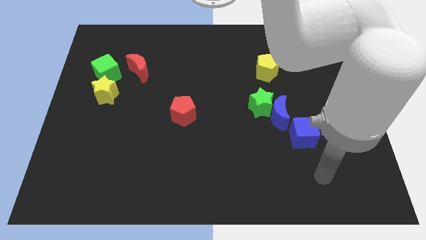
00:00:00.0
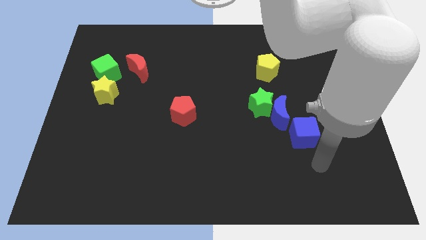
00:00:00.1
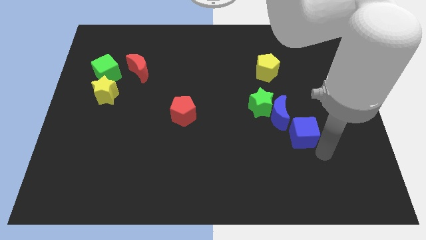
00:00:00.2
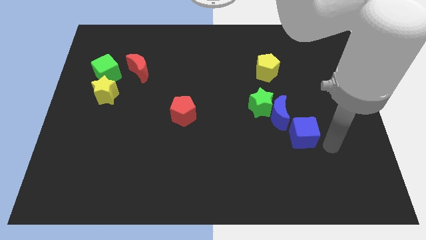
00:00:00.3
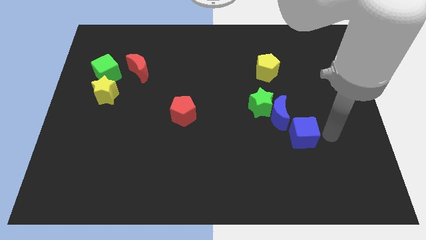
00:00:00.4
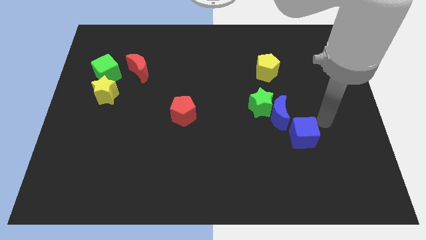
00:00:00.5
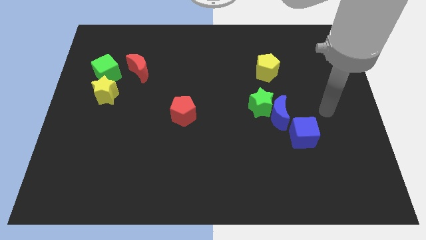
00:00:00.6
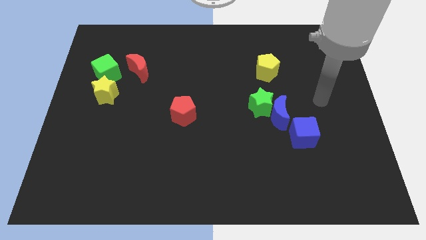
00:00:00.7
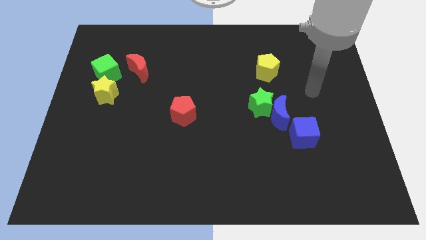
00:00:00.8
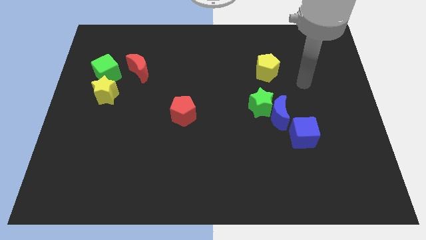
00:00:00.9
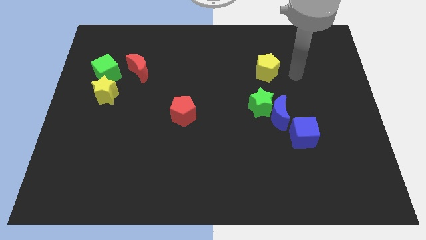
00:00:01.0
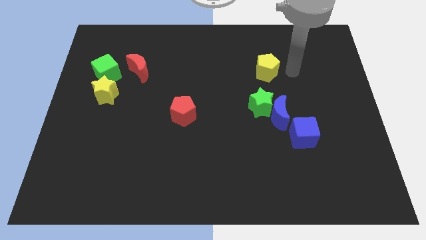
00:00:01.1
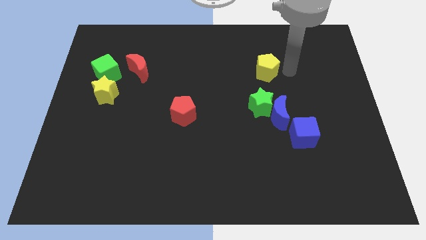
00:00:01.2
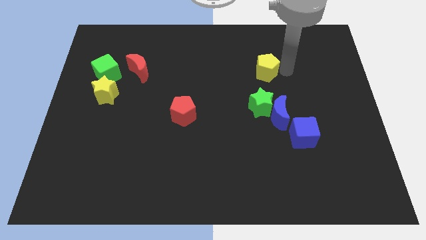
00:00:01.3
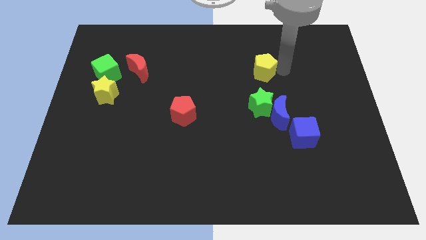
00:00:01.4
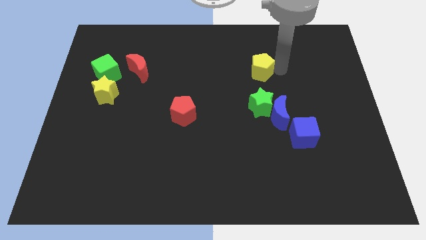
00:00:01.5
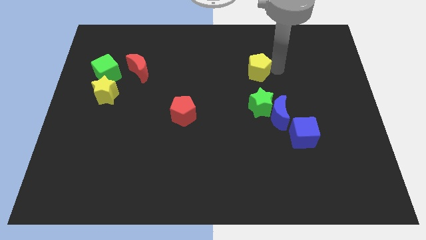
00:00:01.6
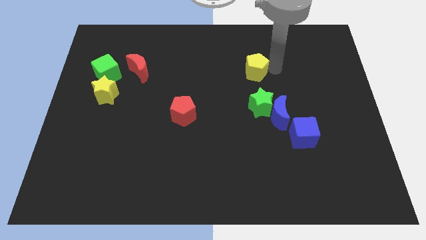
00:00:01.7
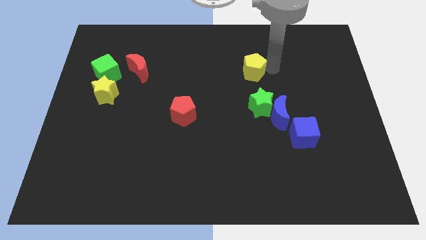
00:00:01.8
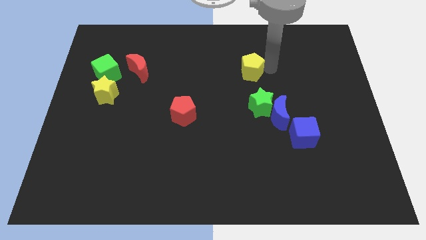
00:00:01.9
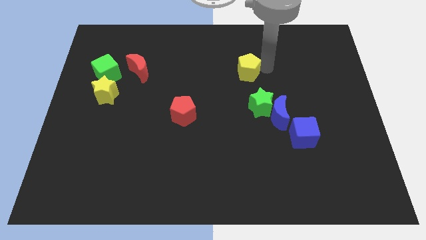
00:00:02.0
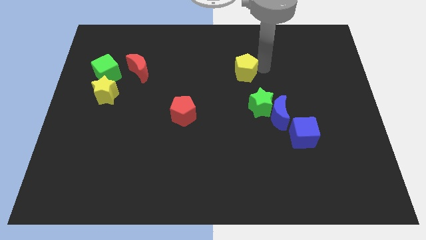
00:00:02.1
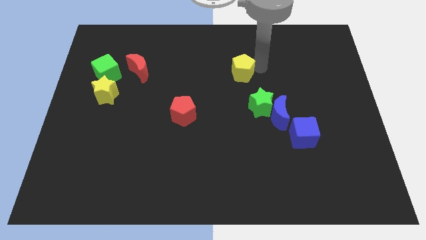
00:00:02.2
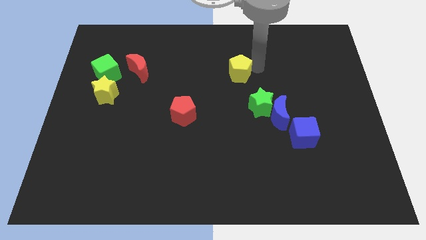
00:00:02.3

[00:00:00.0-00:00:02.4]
push the yellow pentagon a little to the left

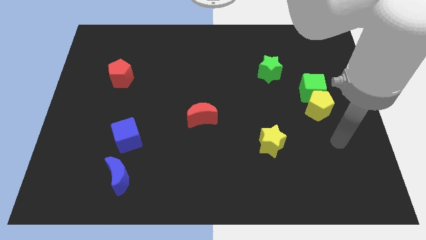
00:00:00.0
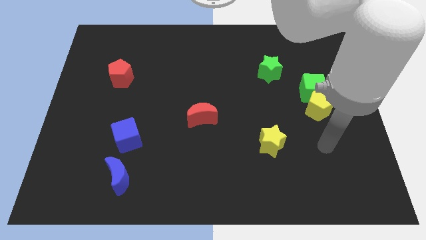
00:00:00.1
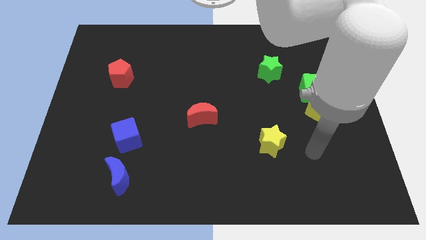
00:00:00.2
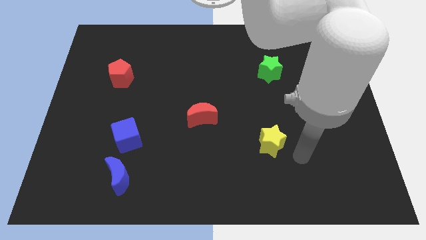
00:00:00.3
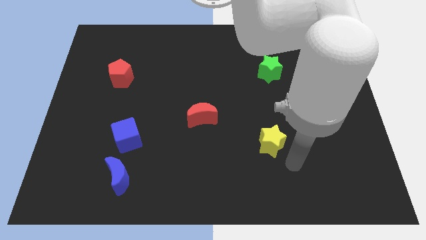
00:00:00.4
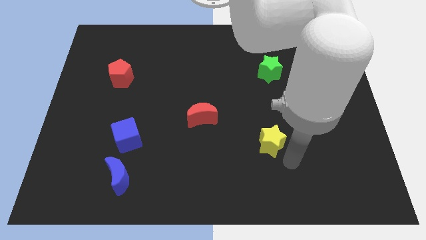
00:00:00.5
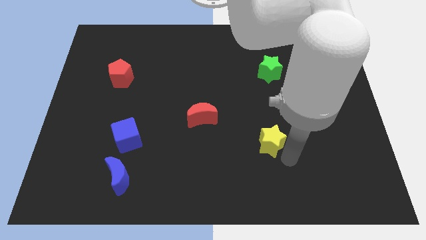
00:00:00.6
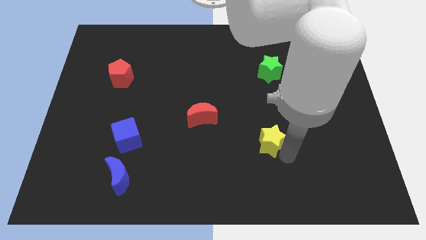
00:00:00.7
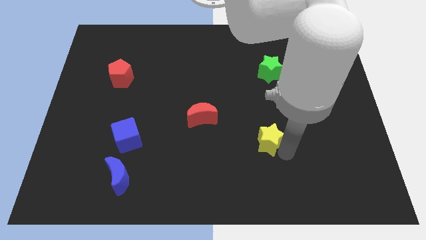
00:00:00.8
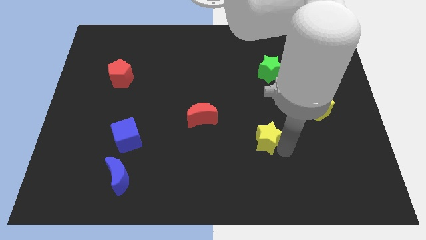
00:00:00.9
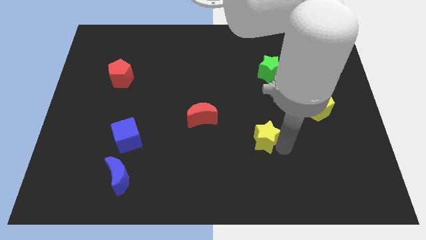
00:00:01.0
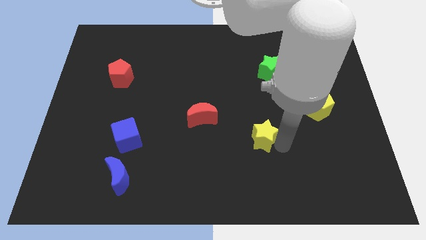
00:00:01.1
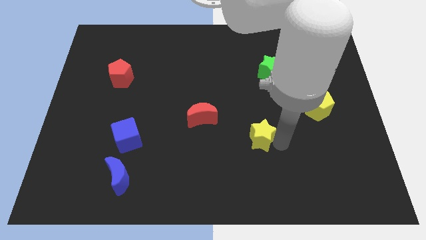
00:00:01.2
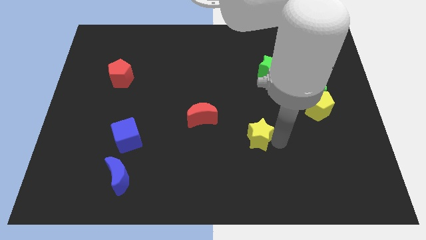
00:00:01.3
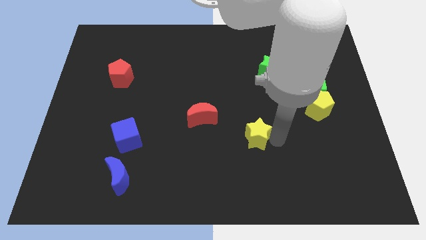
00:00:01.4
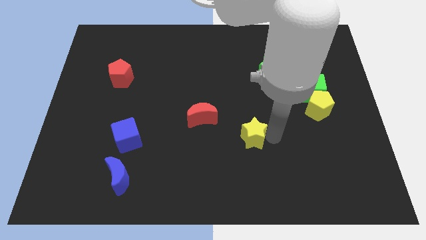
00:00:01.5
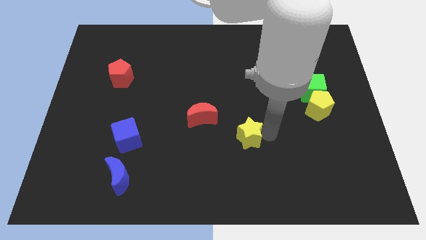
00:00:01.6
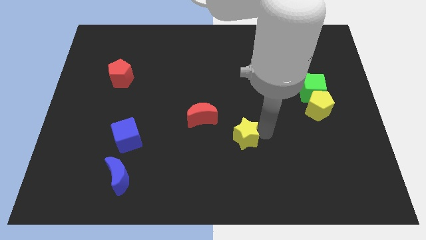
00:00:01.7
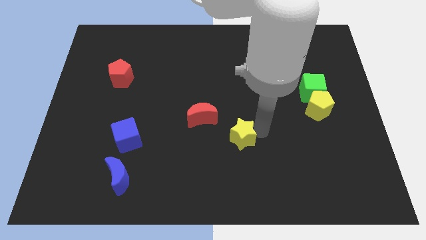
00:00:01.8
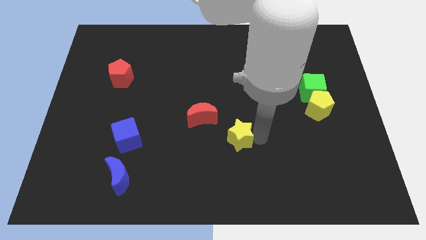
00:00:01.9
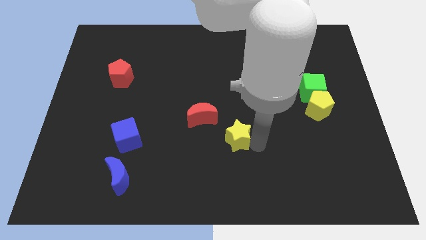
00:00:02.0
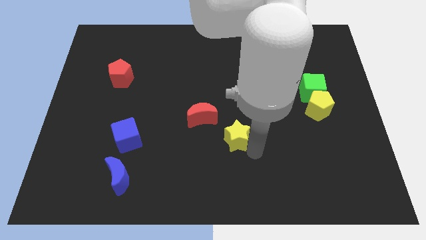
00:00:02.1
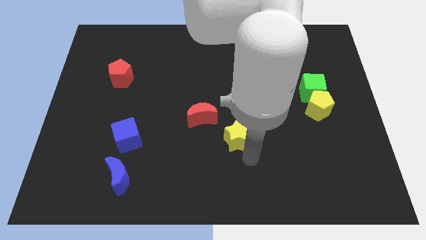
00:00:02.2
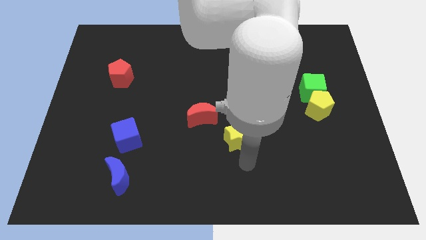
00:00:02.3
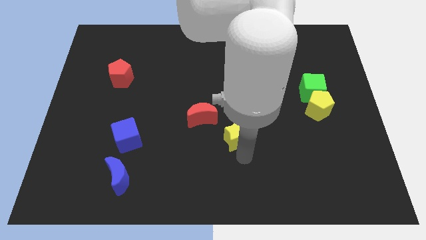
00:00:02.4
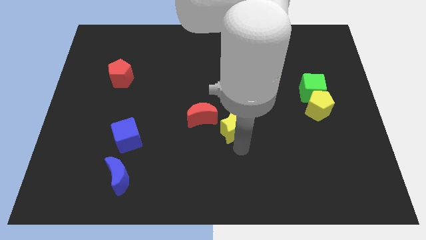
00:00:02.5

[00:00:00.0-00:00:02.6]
push the yellow star a little bit up and left diagonally

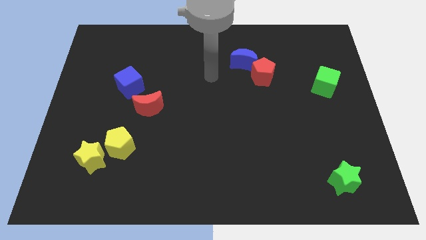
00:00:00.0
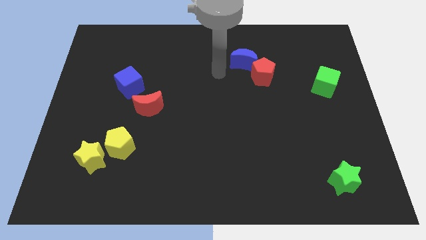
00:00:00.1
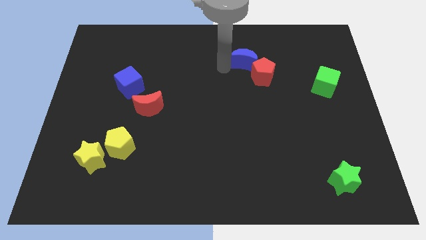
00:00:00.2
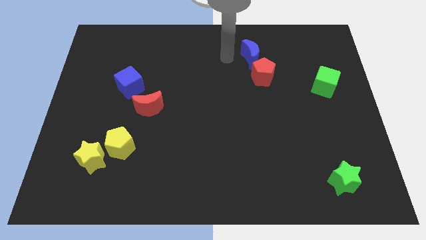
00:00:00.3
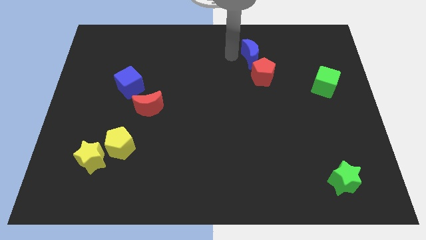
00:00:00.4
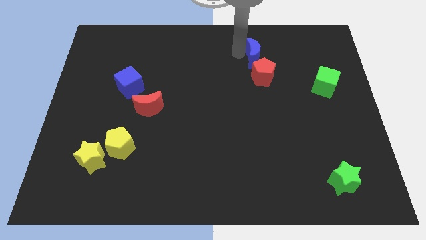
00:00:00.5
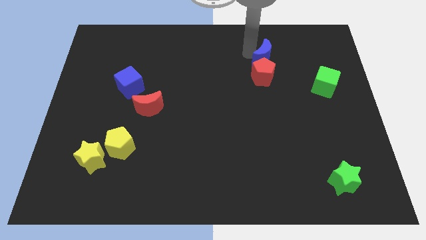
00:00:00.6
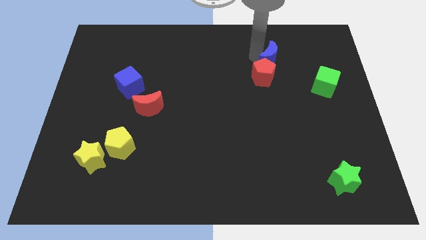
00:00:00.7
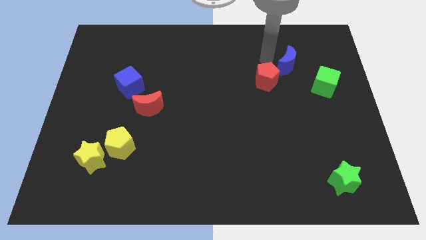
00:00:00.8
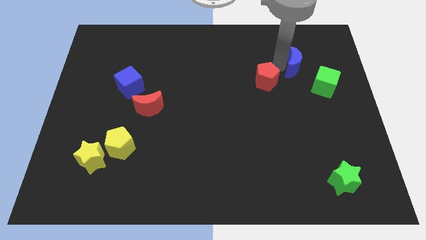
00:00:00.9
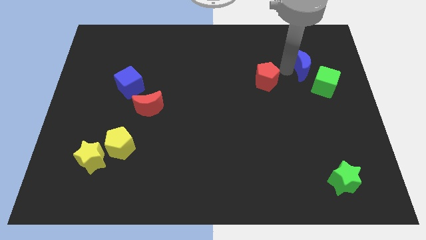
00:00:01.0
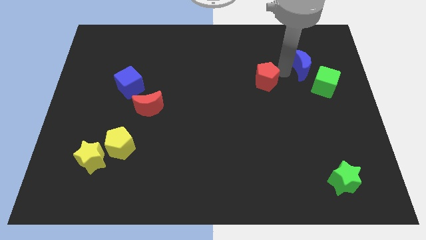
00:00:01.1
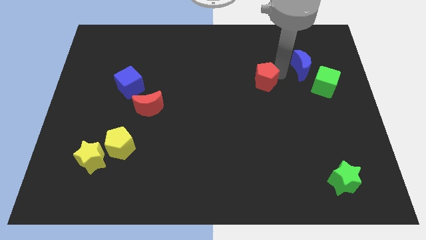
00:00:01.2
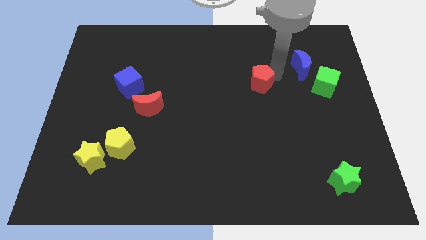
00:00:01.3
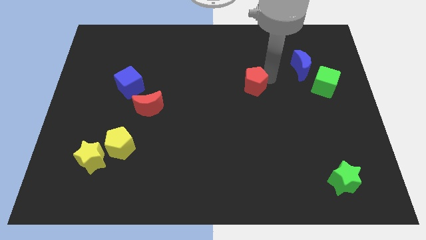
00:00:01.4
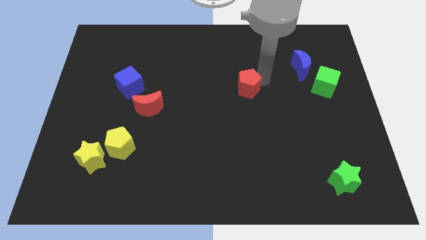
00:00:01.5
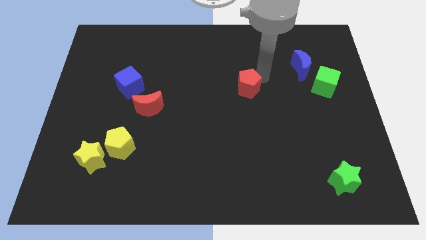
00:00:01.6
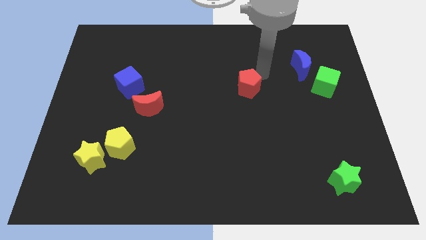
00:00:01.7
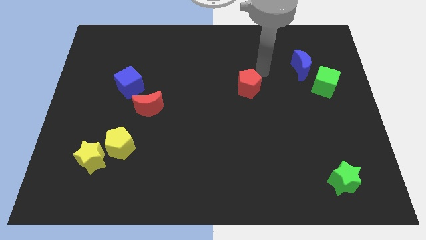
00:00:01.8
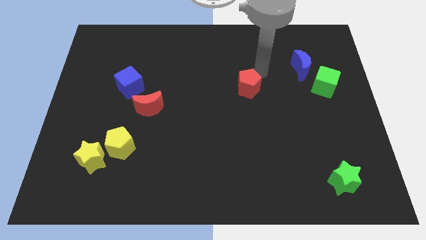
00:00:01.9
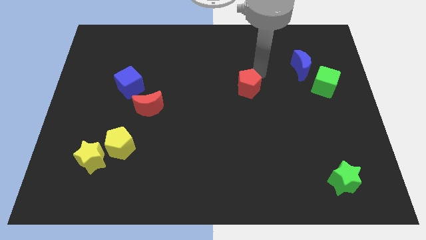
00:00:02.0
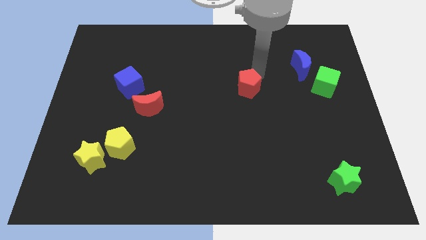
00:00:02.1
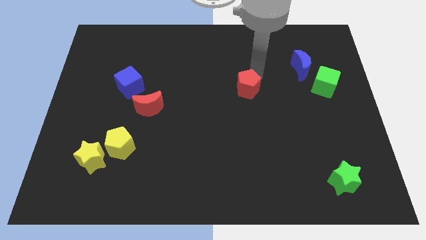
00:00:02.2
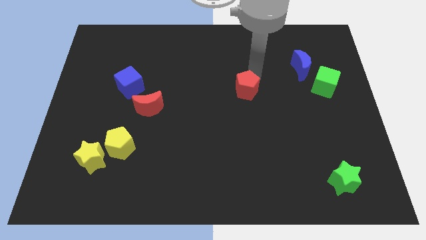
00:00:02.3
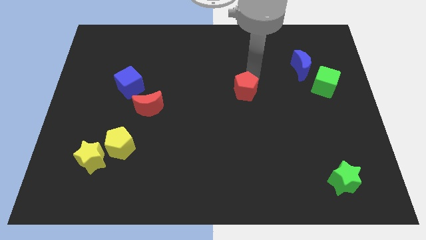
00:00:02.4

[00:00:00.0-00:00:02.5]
slide the red pentagon down and left diagonally slightly

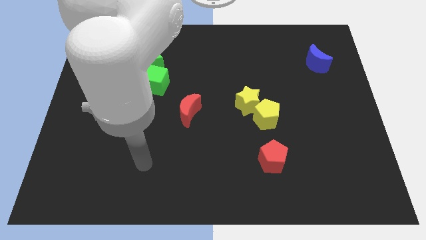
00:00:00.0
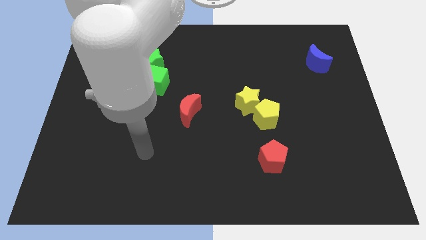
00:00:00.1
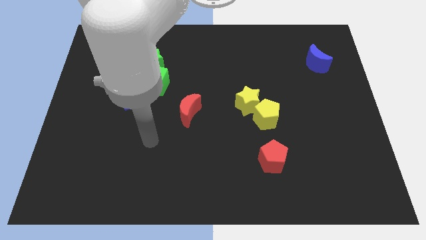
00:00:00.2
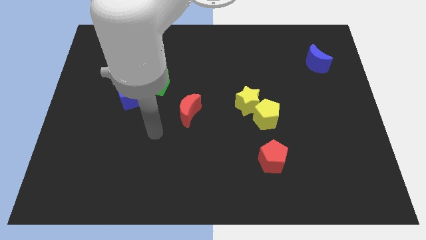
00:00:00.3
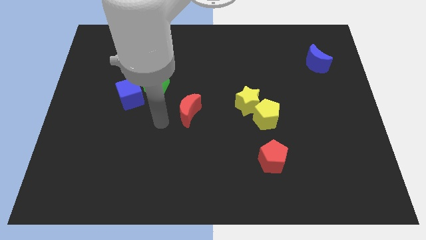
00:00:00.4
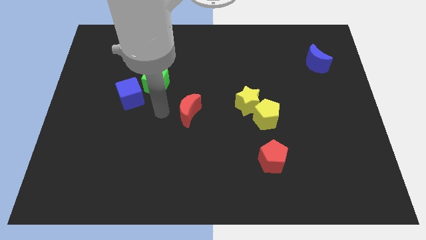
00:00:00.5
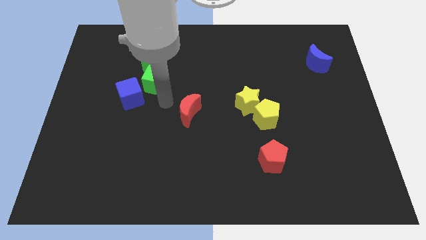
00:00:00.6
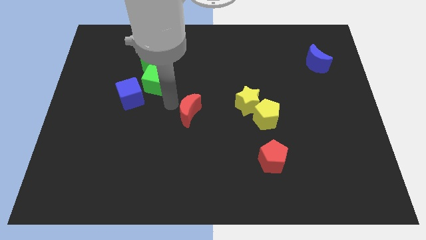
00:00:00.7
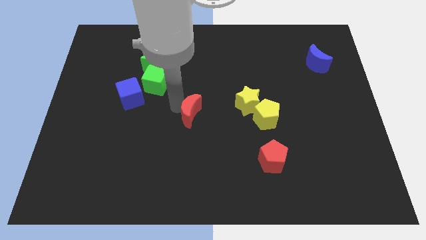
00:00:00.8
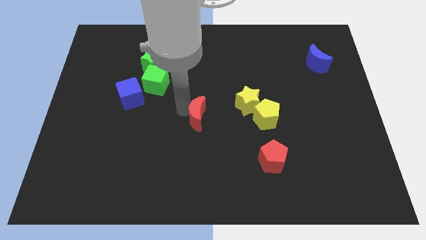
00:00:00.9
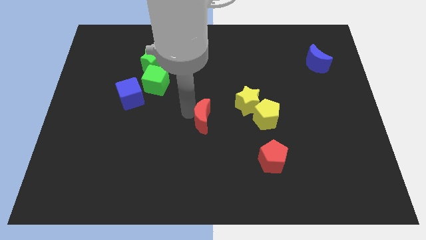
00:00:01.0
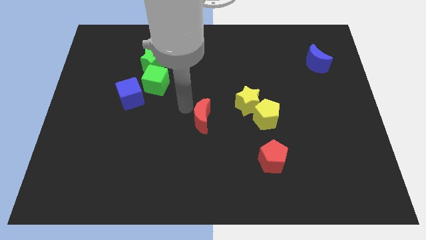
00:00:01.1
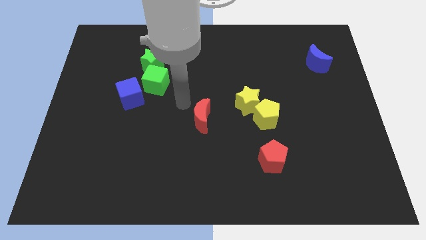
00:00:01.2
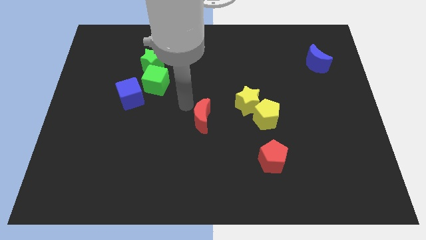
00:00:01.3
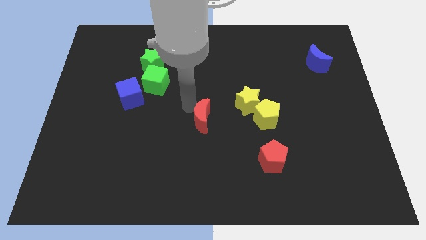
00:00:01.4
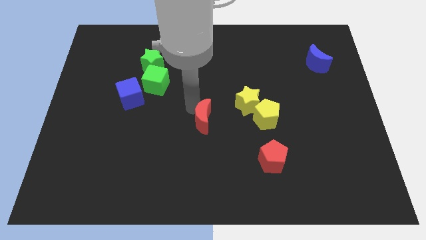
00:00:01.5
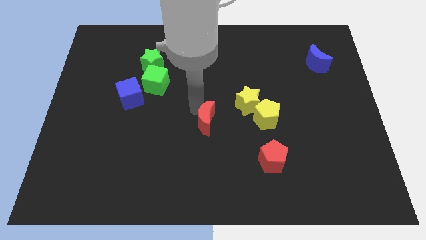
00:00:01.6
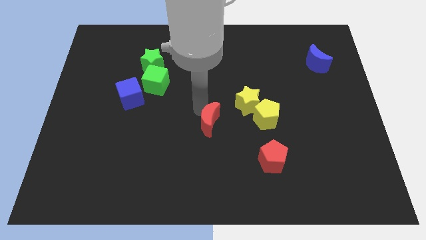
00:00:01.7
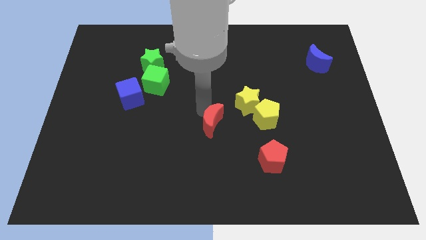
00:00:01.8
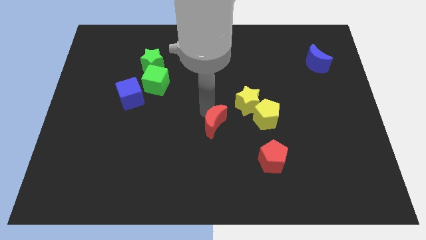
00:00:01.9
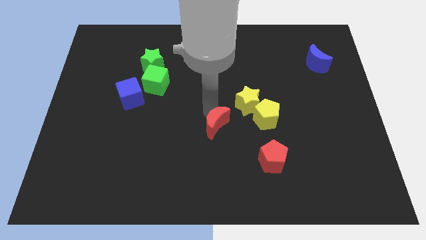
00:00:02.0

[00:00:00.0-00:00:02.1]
slightly push the red moon down and then right
